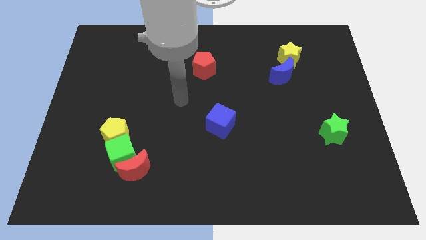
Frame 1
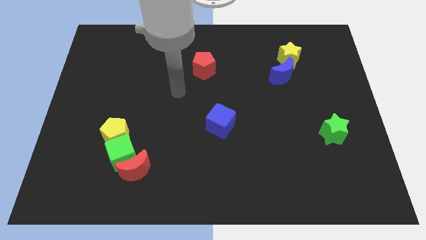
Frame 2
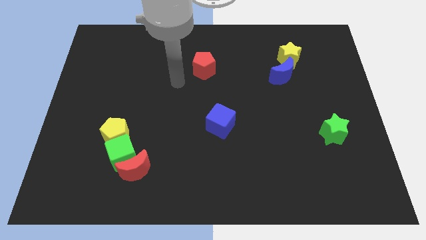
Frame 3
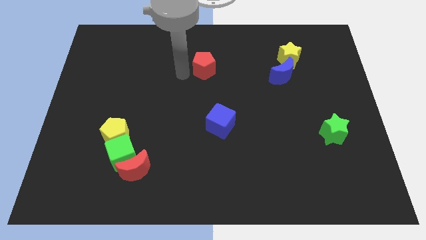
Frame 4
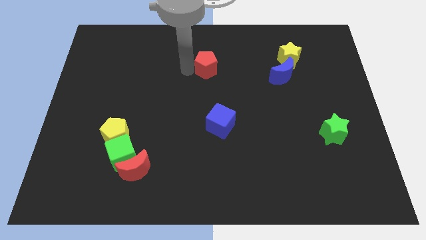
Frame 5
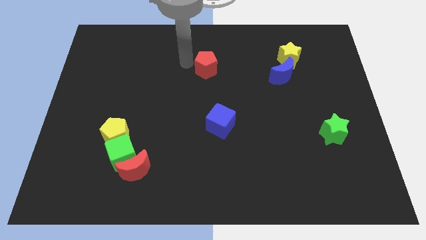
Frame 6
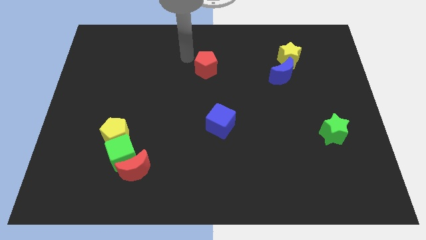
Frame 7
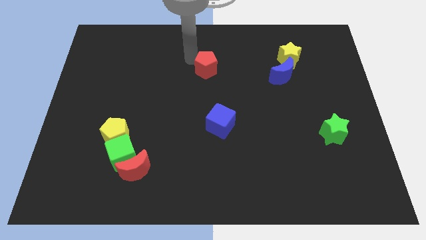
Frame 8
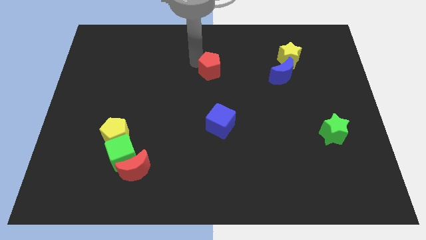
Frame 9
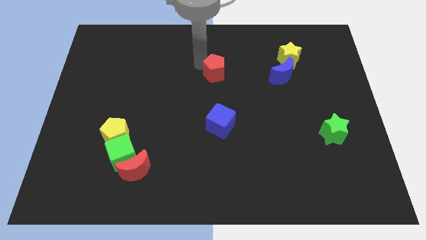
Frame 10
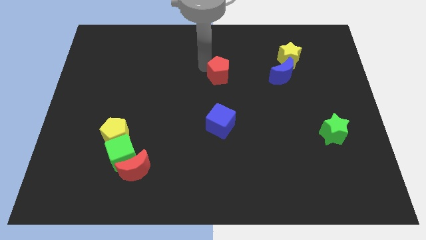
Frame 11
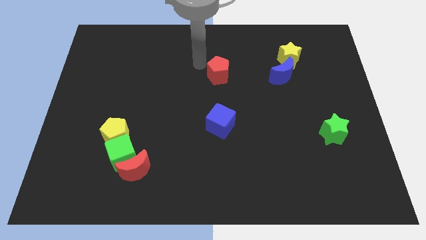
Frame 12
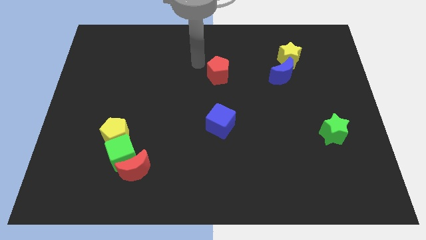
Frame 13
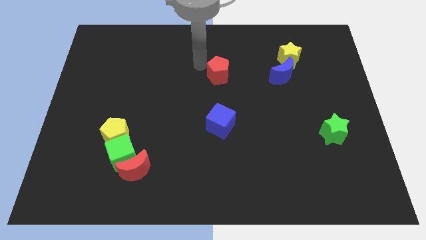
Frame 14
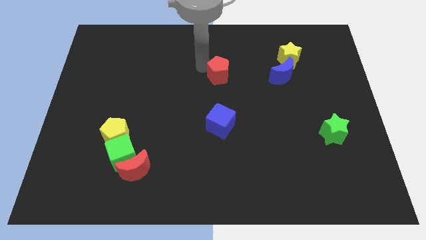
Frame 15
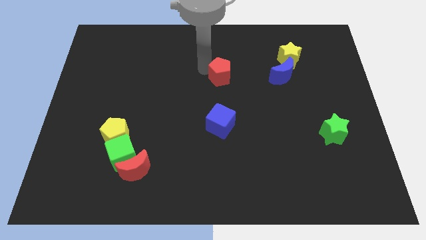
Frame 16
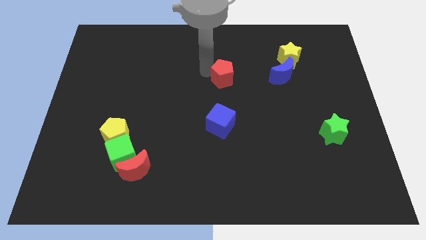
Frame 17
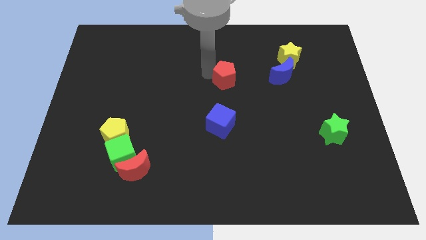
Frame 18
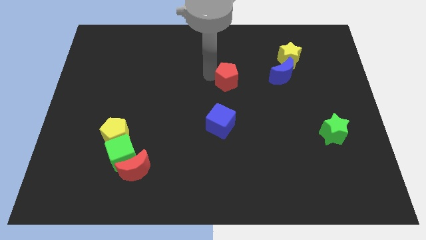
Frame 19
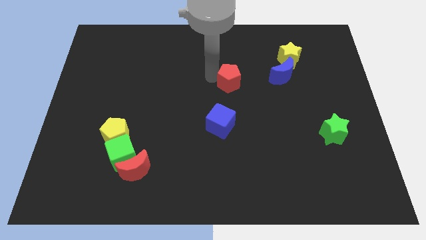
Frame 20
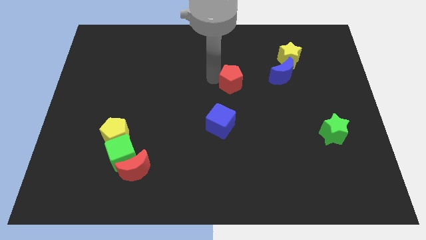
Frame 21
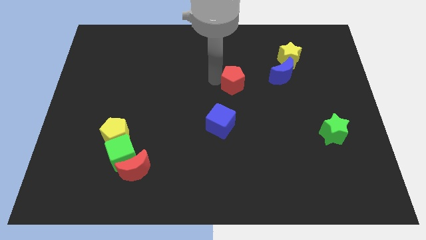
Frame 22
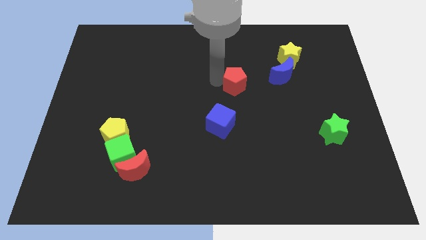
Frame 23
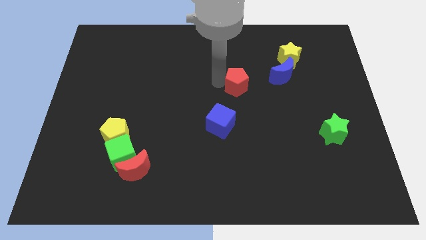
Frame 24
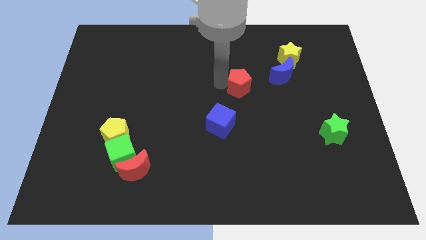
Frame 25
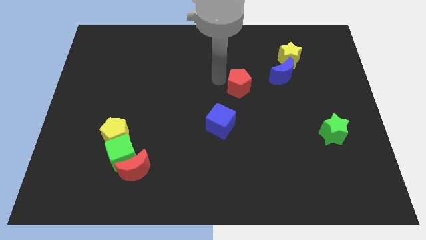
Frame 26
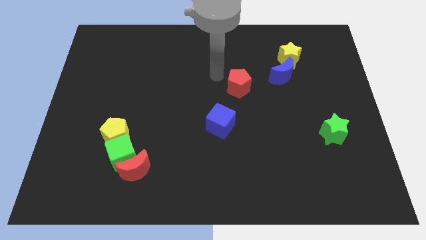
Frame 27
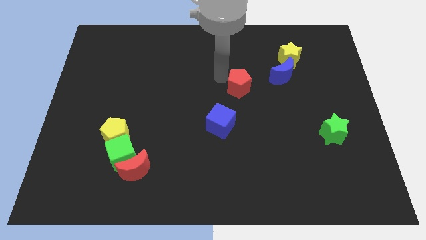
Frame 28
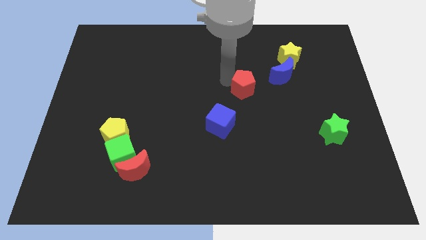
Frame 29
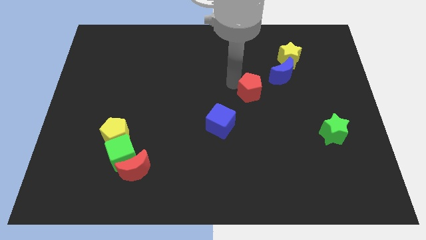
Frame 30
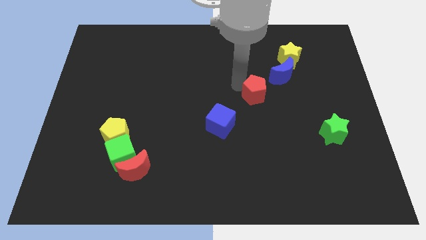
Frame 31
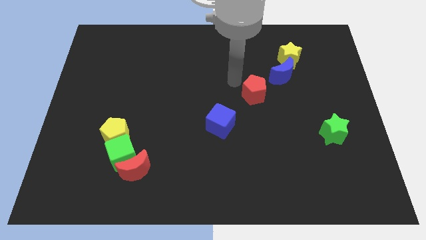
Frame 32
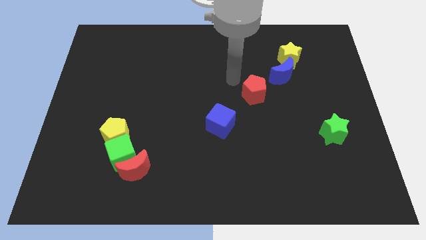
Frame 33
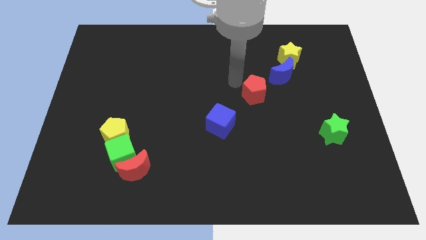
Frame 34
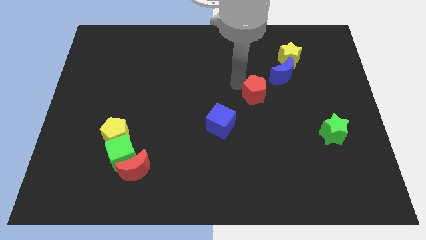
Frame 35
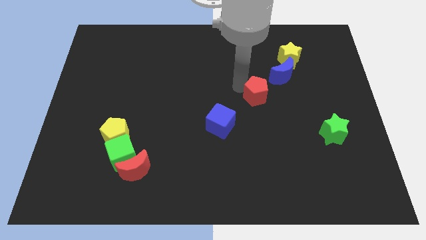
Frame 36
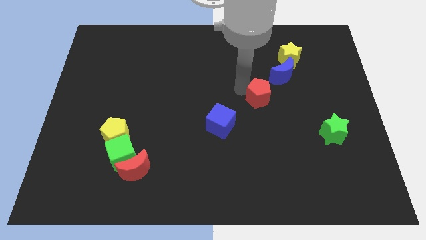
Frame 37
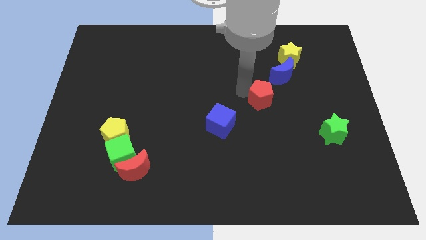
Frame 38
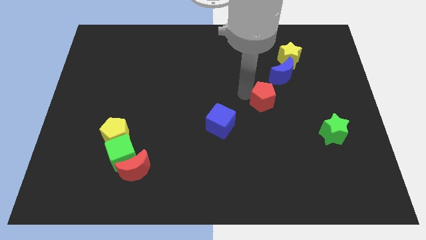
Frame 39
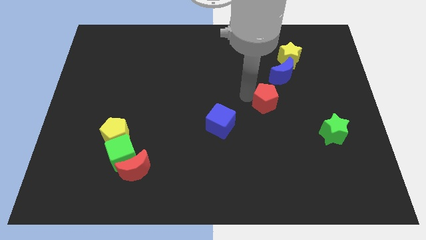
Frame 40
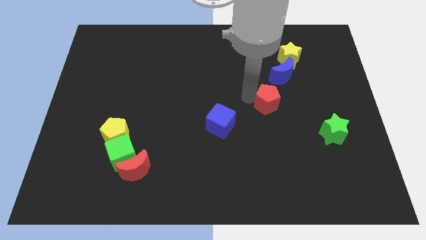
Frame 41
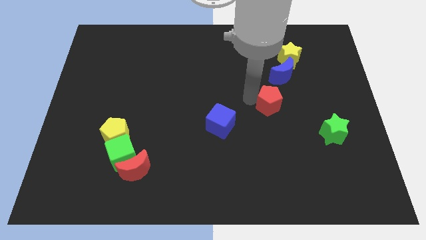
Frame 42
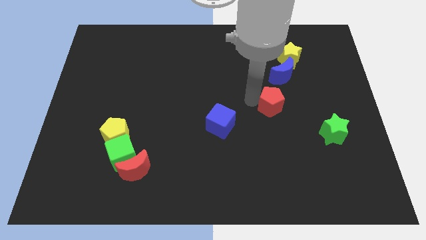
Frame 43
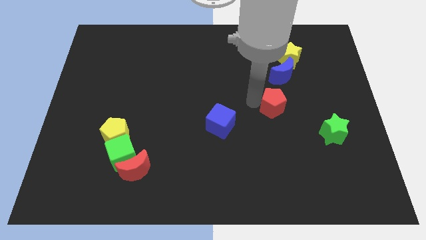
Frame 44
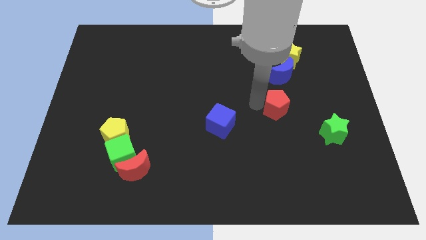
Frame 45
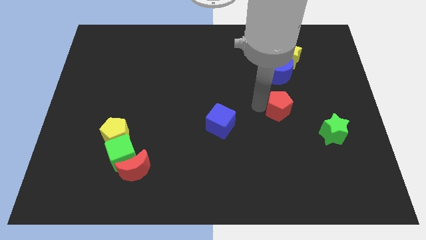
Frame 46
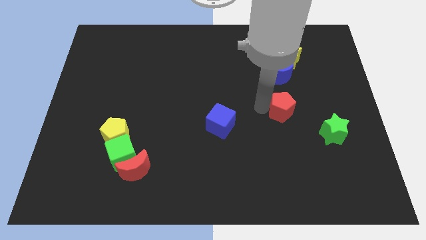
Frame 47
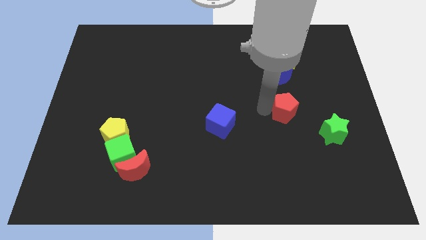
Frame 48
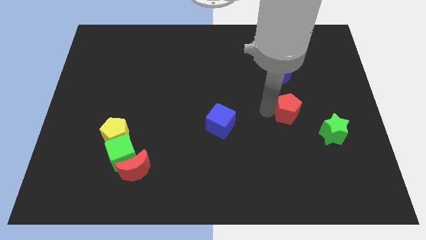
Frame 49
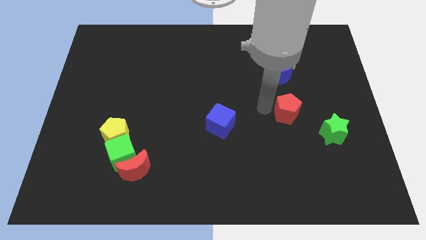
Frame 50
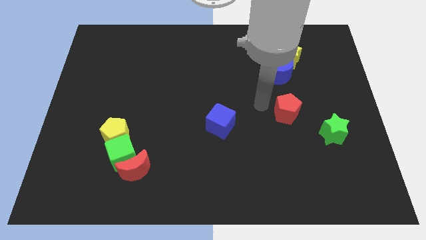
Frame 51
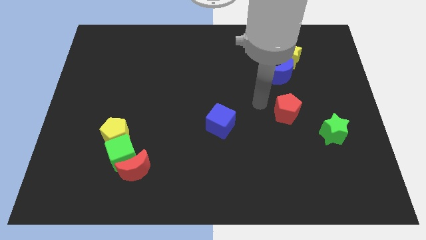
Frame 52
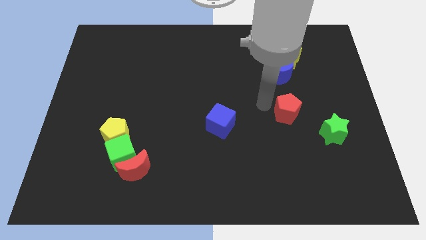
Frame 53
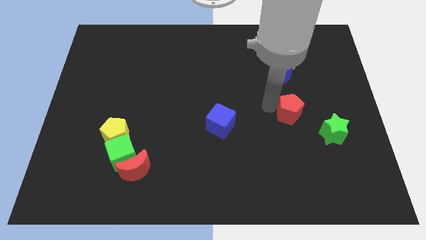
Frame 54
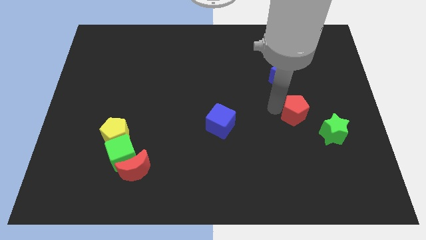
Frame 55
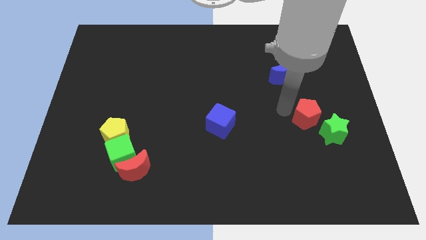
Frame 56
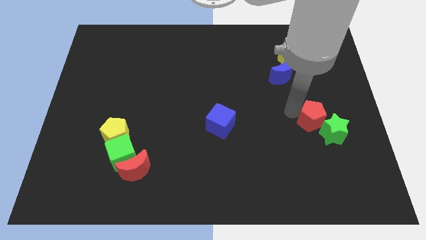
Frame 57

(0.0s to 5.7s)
move the red pentagon to the green star

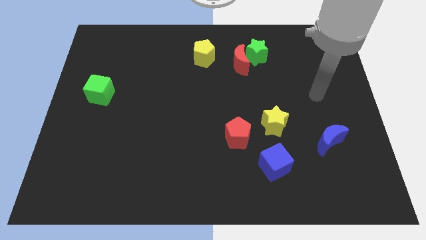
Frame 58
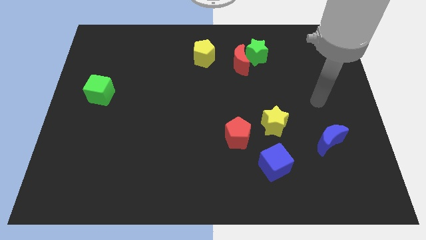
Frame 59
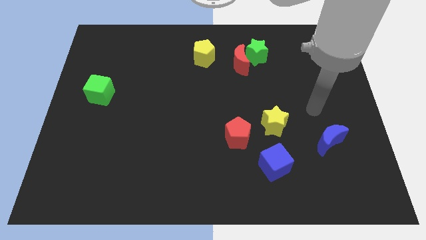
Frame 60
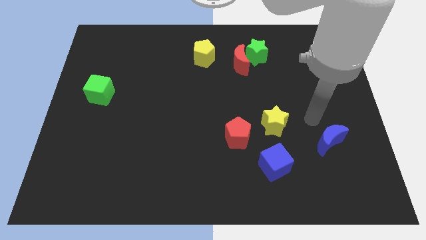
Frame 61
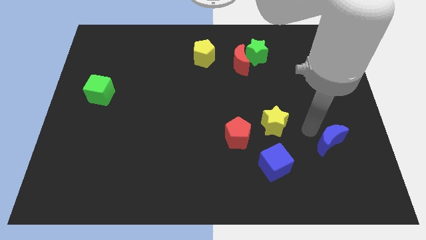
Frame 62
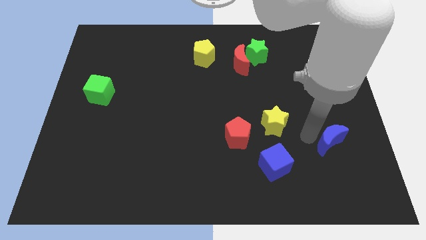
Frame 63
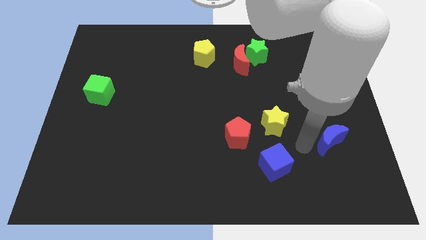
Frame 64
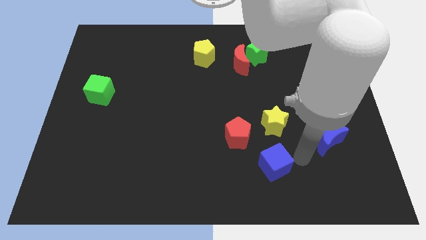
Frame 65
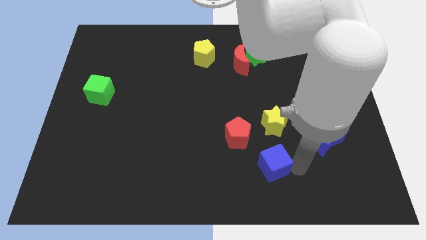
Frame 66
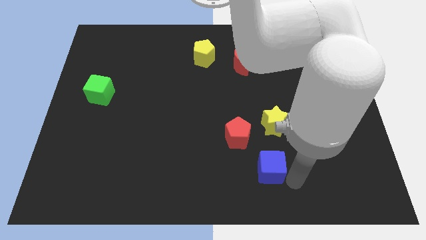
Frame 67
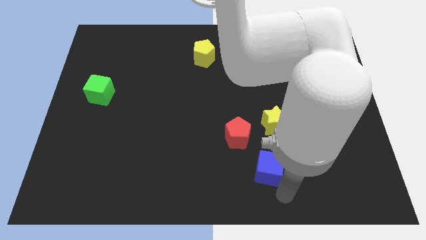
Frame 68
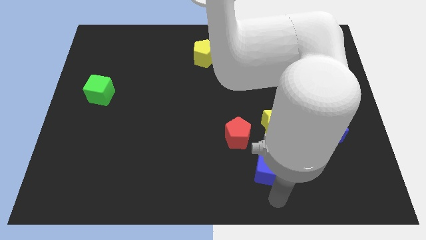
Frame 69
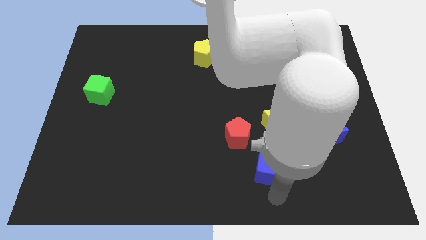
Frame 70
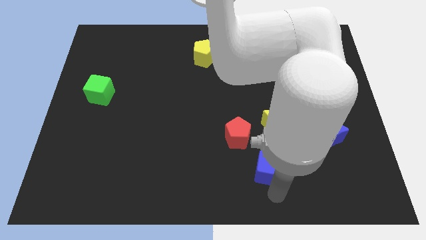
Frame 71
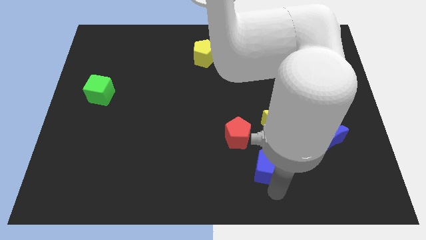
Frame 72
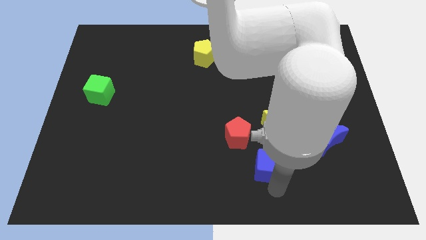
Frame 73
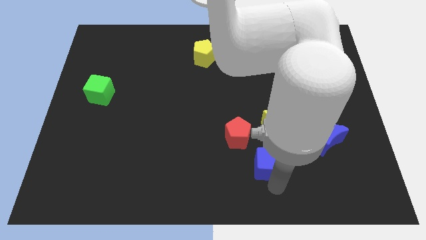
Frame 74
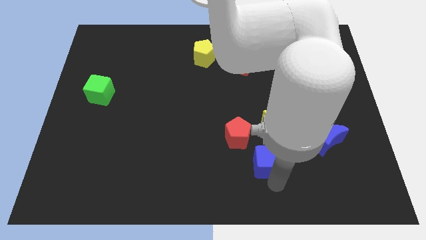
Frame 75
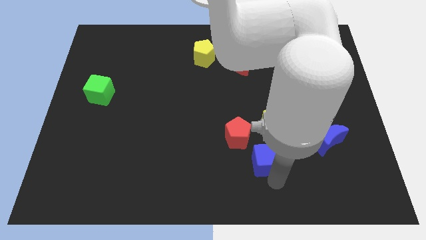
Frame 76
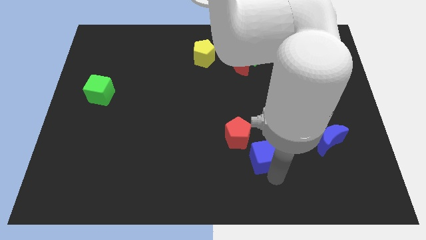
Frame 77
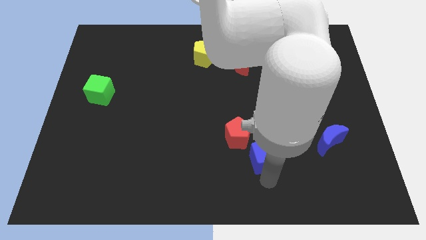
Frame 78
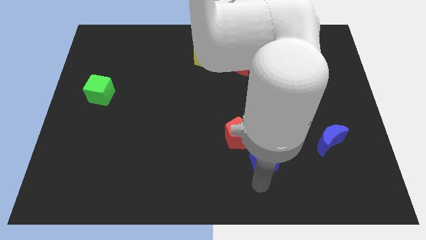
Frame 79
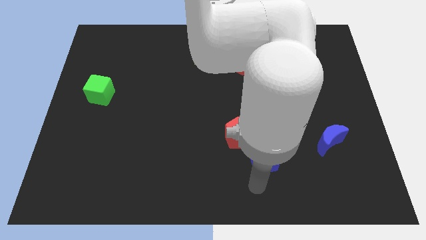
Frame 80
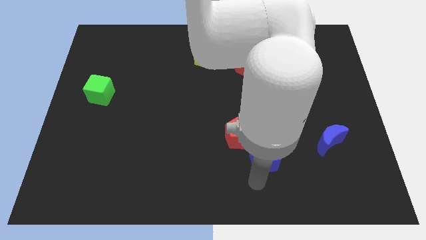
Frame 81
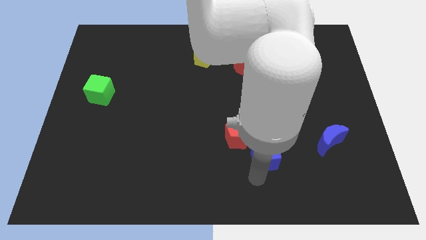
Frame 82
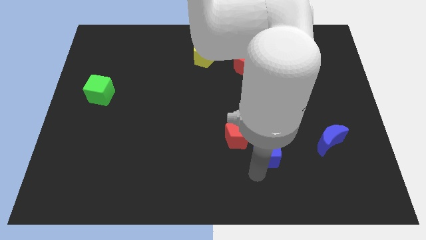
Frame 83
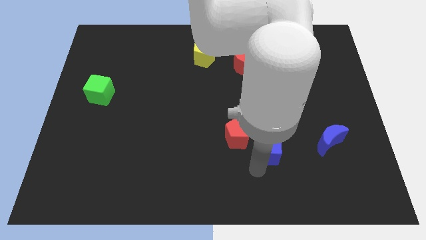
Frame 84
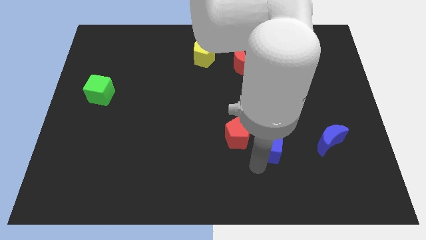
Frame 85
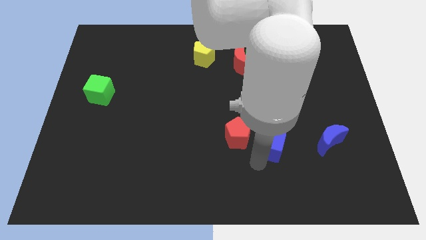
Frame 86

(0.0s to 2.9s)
move the blue cube to the yellow star
